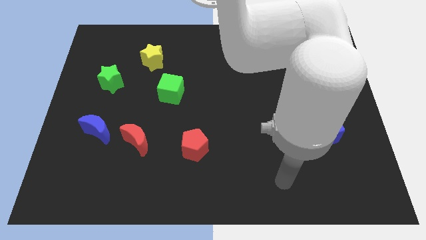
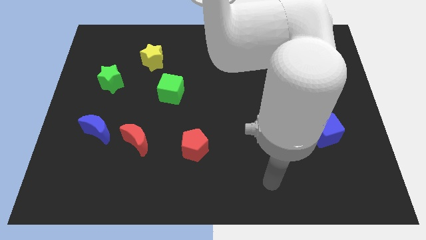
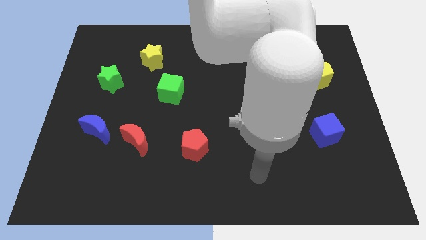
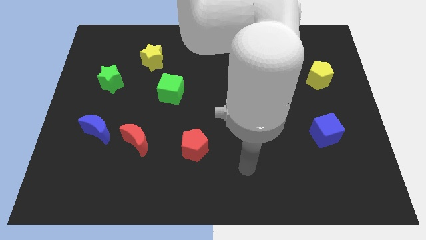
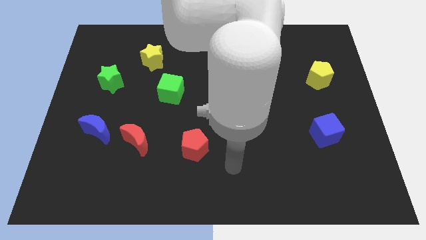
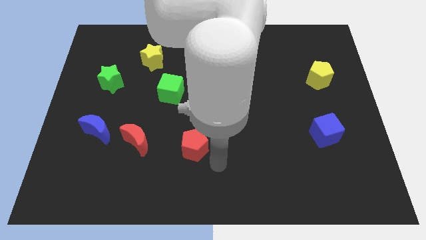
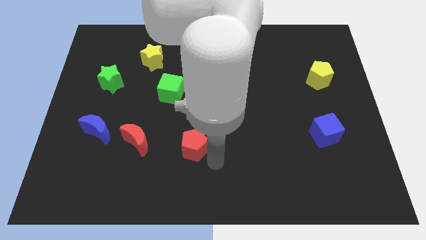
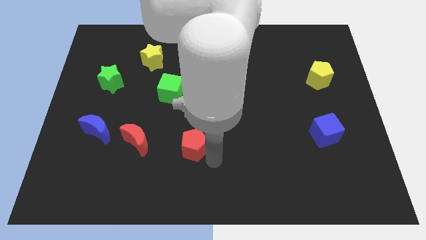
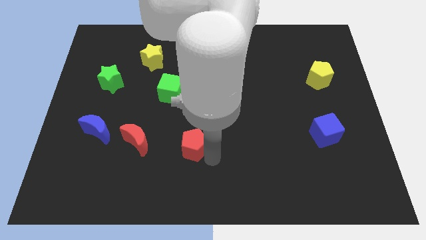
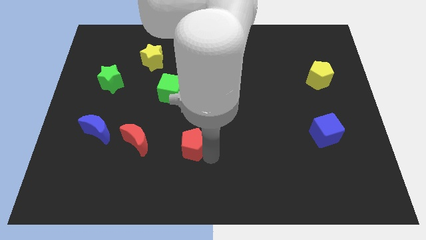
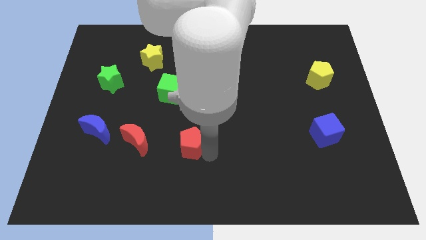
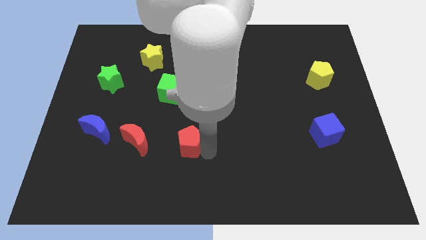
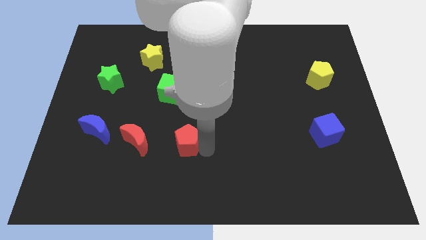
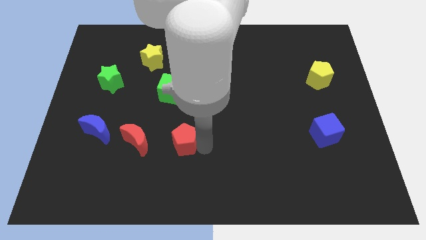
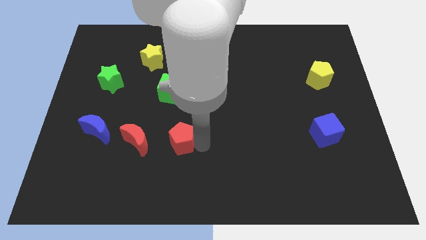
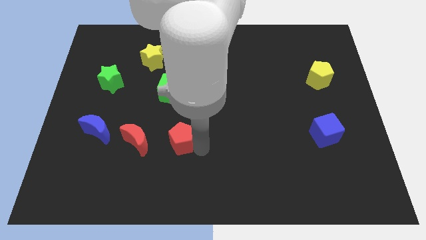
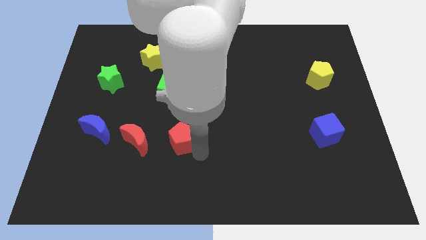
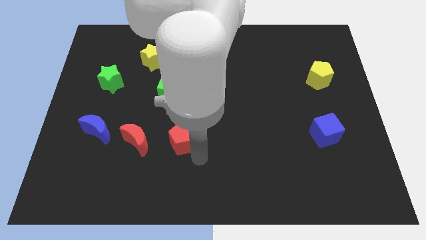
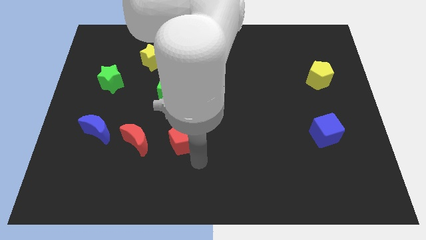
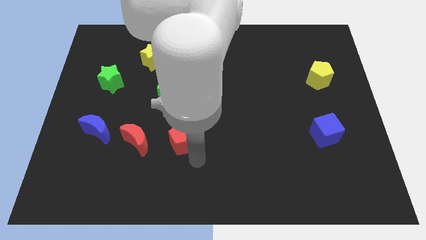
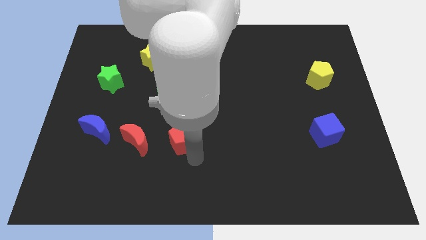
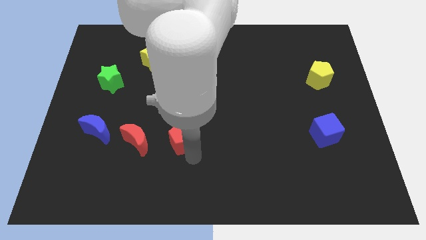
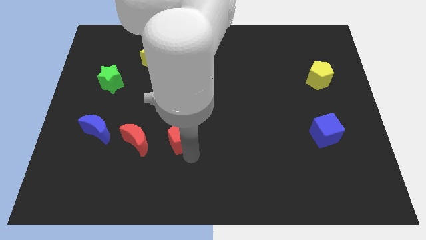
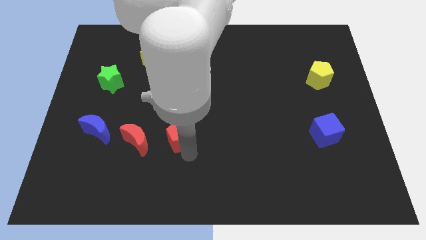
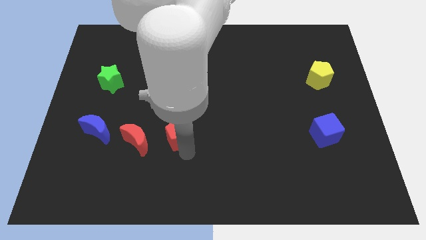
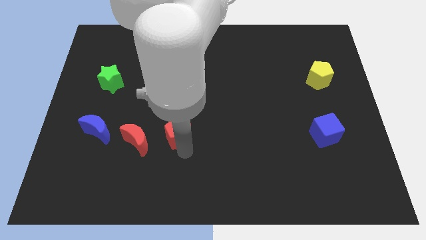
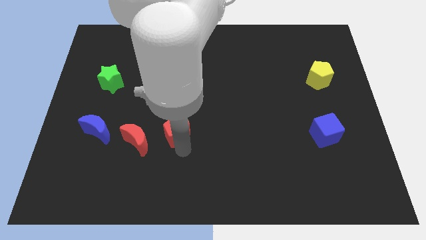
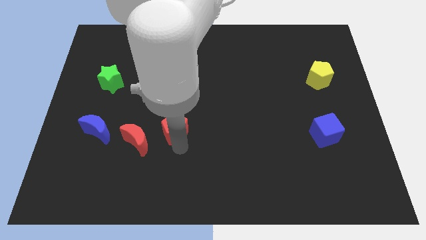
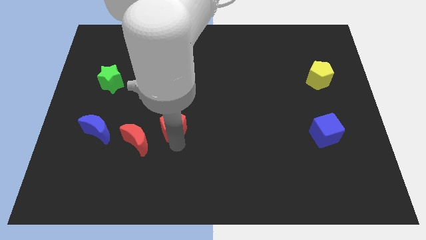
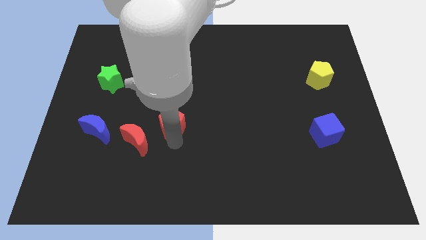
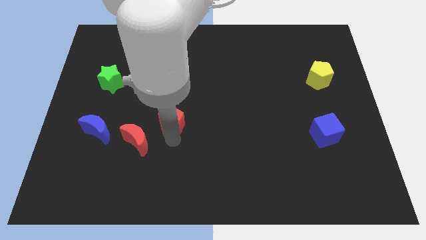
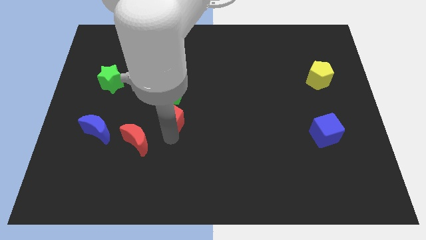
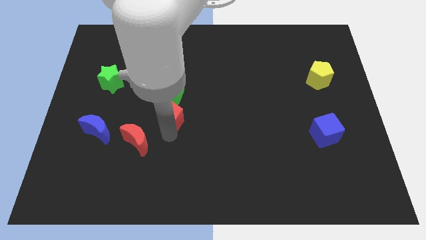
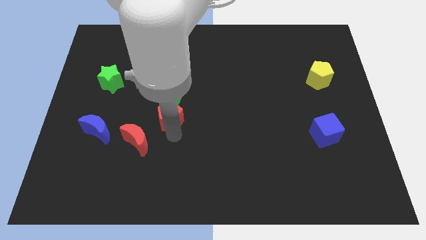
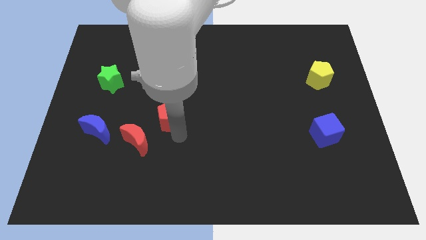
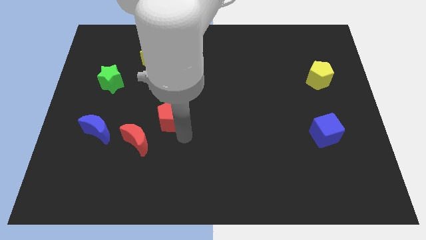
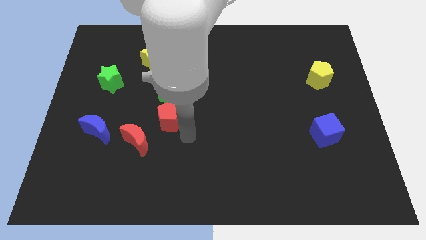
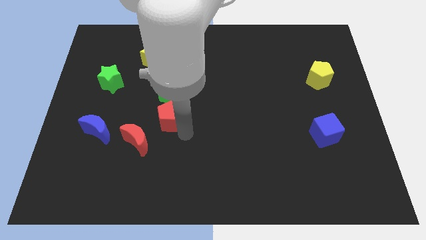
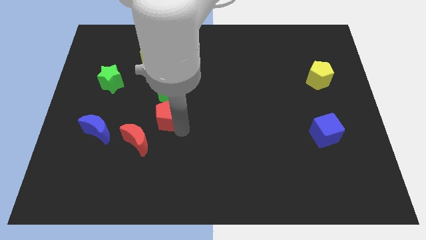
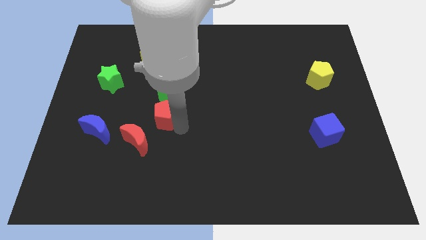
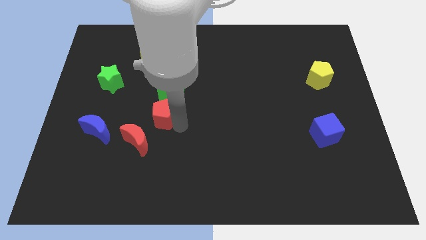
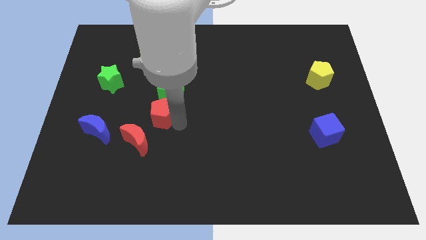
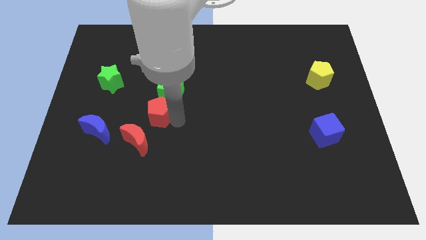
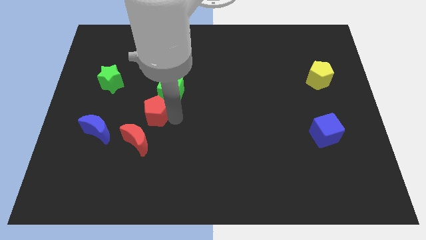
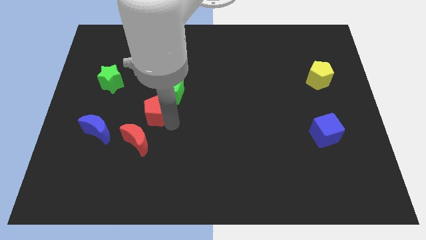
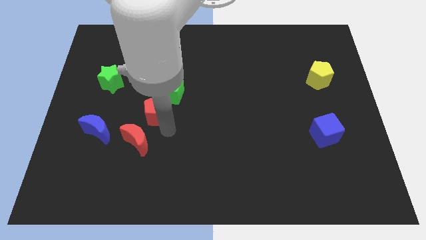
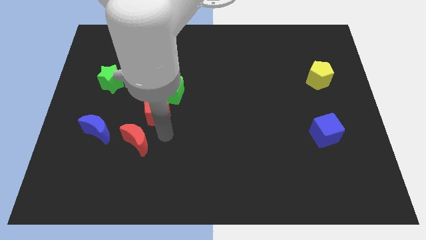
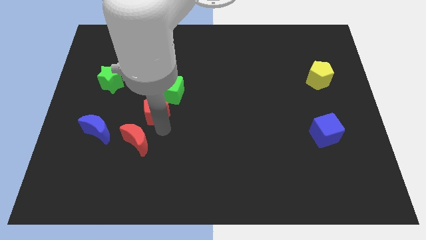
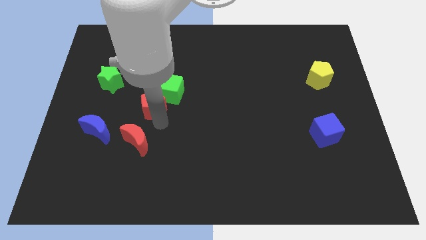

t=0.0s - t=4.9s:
push the red pentagon below the yellow star

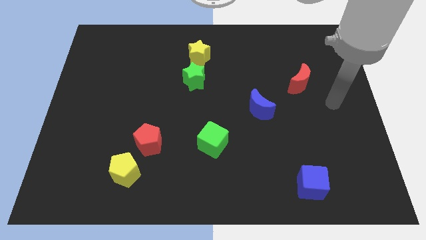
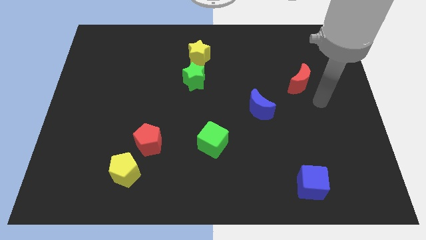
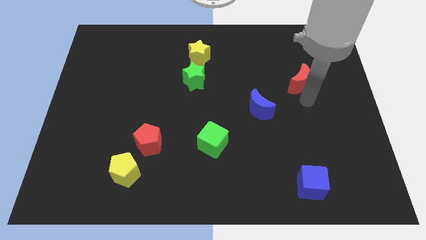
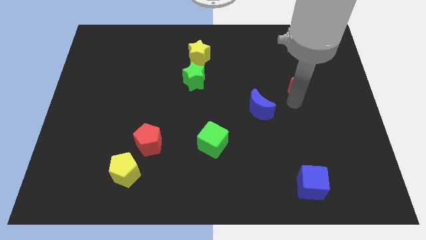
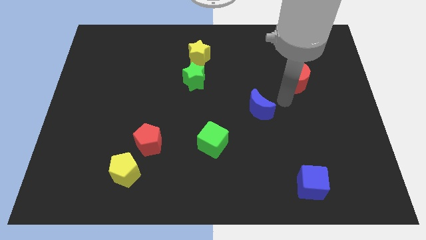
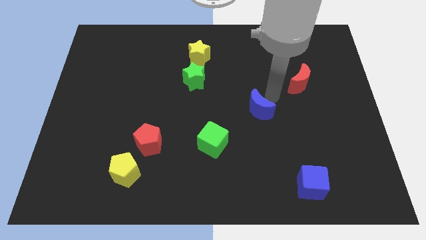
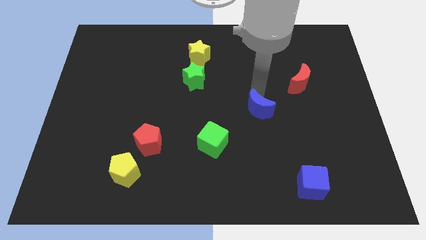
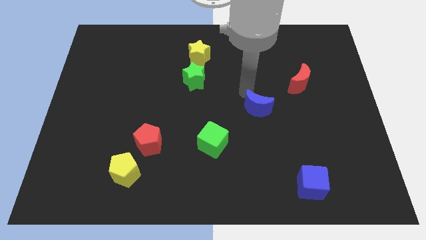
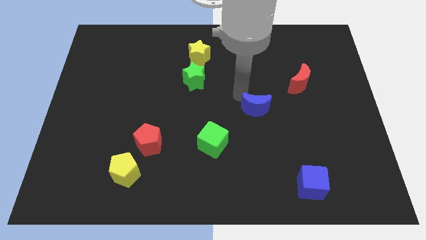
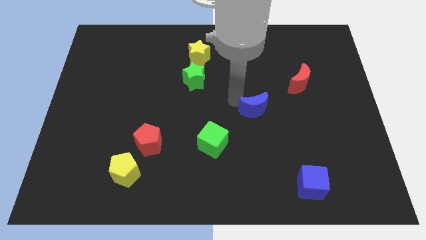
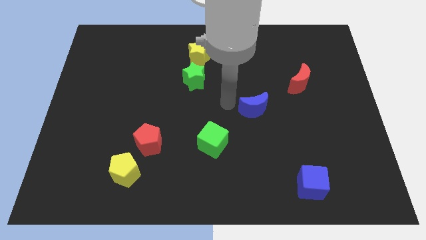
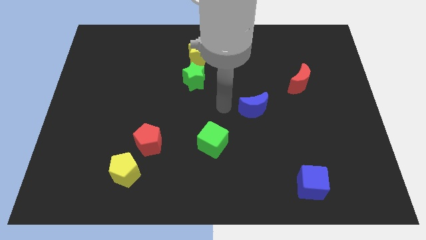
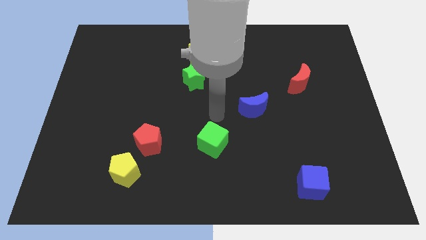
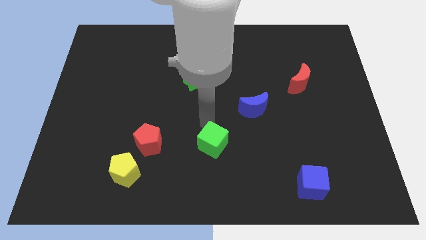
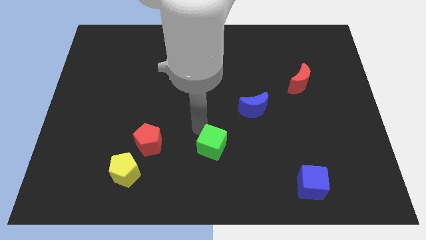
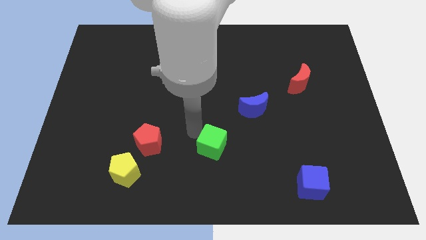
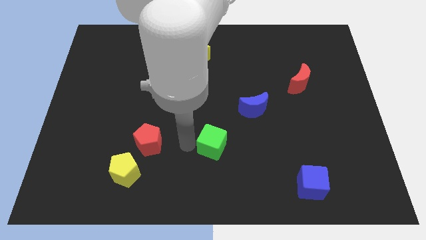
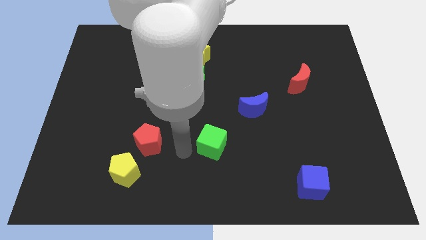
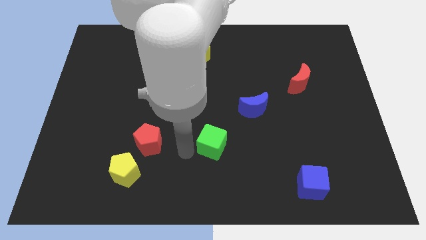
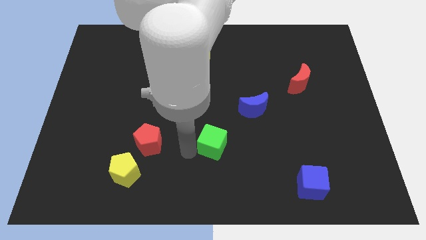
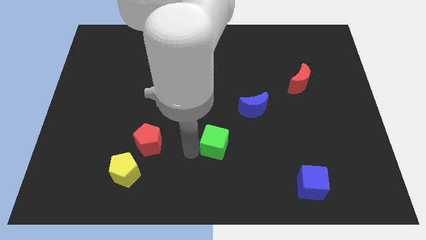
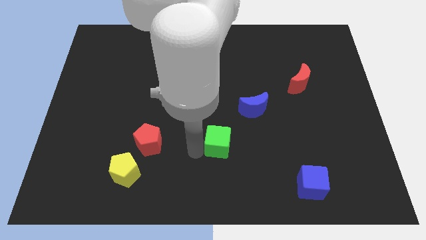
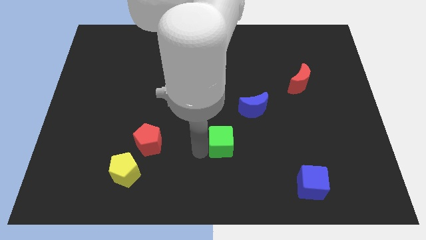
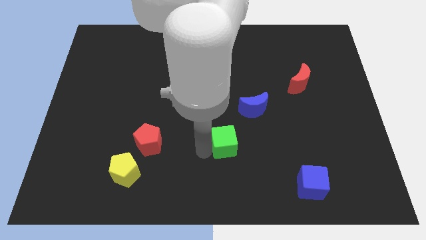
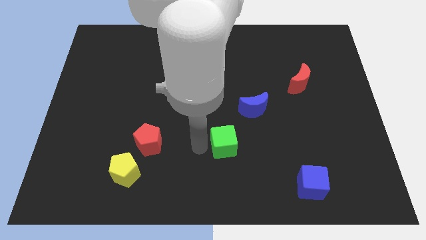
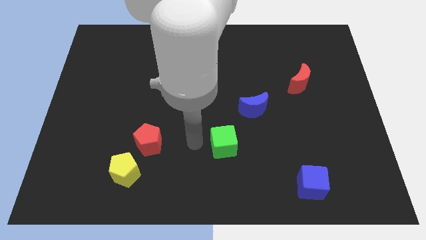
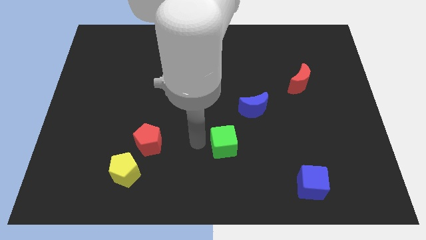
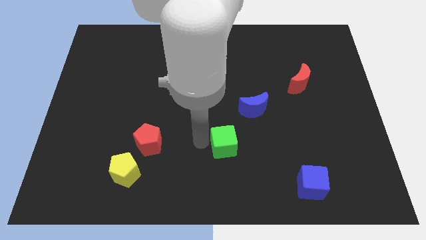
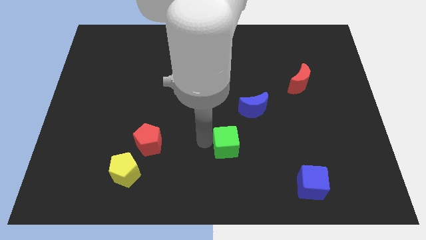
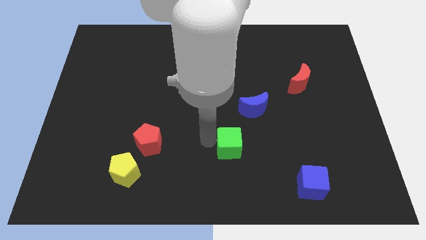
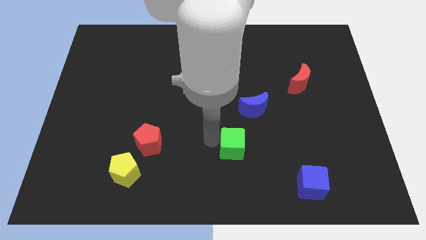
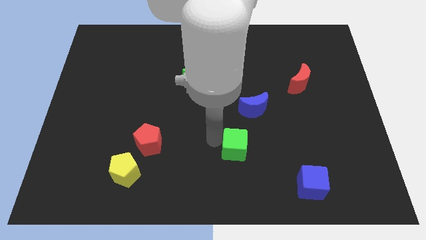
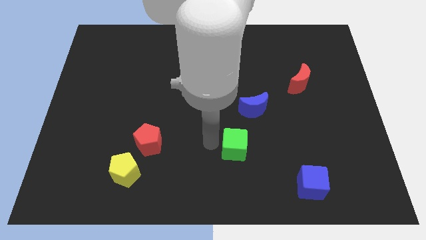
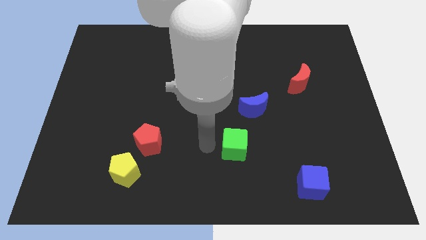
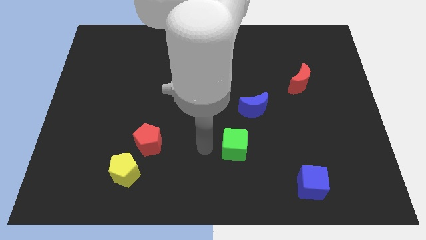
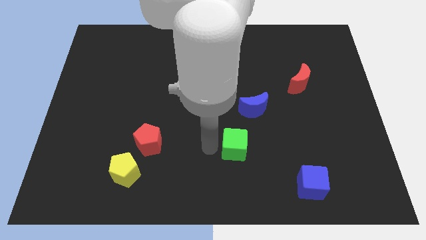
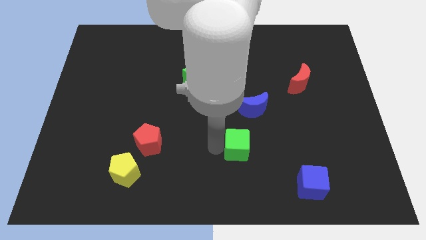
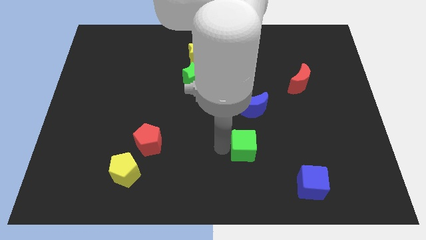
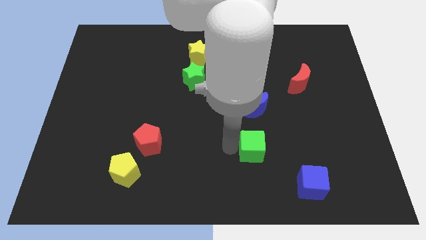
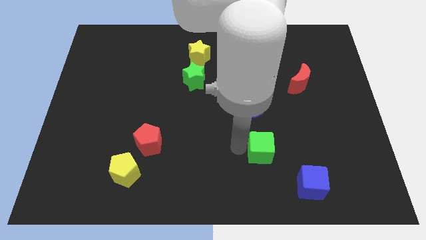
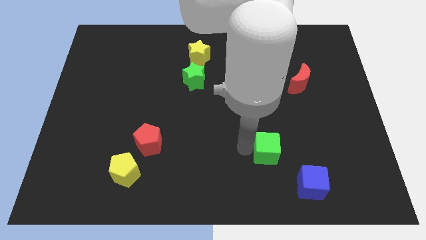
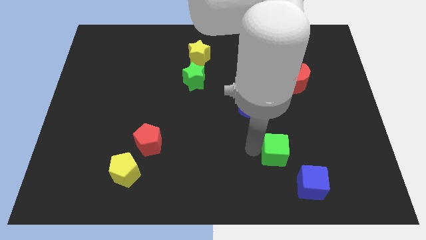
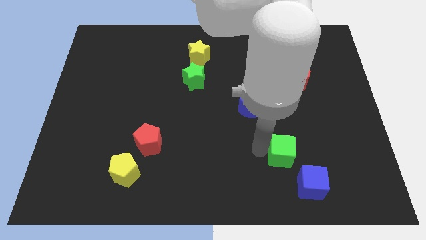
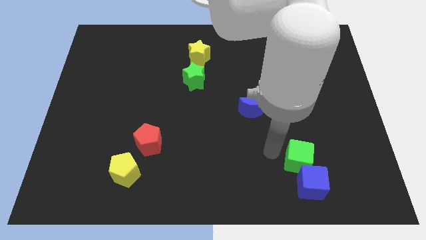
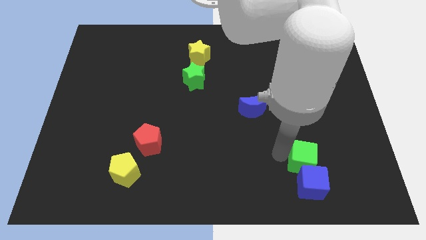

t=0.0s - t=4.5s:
push the green cube diagonally up and to the right of the blue cube
